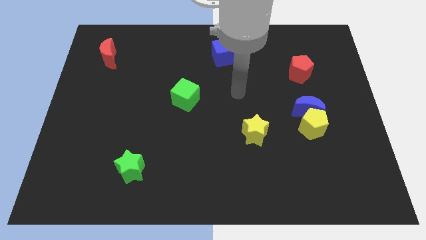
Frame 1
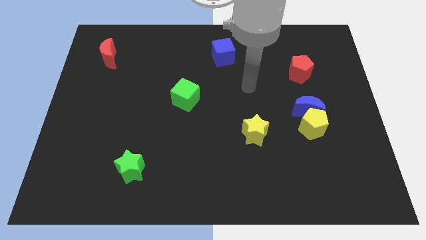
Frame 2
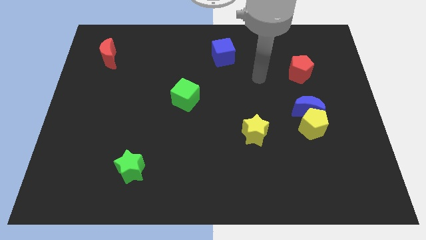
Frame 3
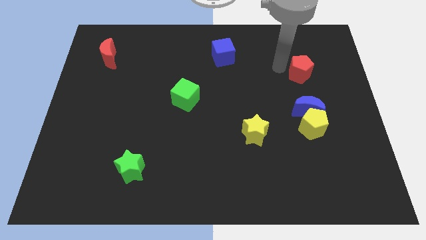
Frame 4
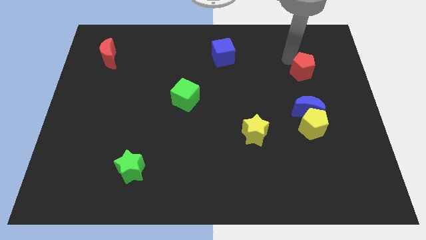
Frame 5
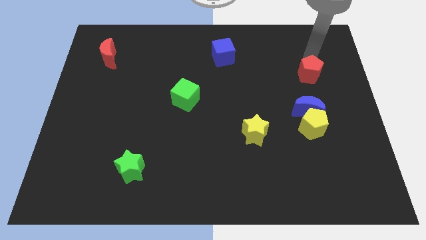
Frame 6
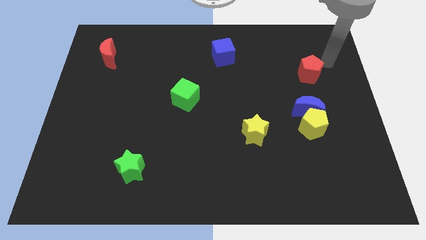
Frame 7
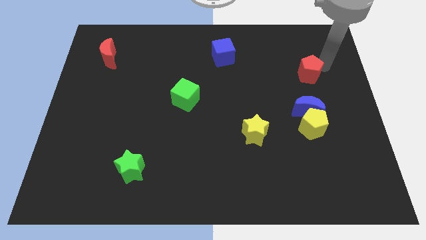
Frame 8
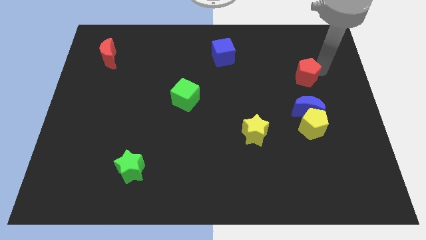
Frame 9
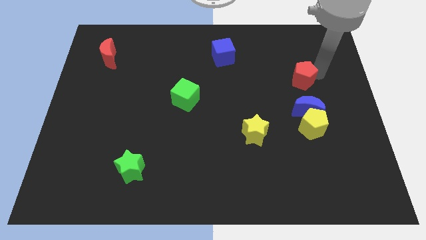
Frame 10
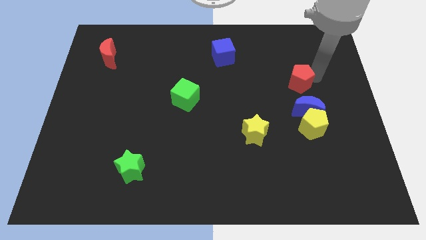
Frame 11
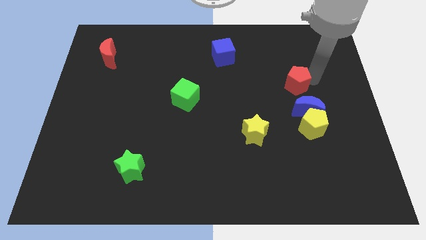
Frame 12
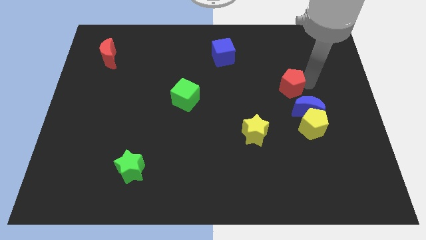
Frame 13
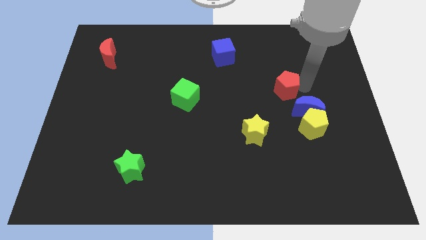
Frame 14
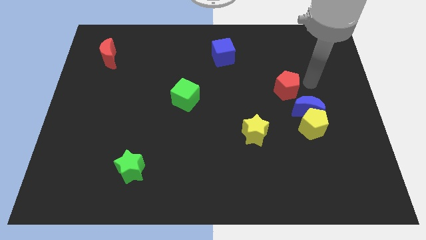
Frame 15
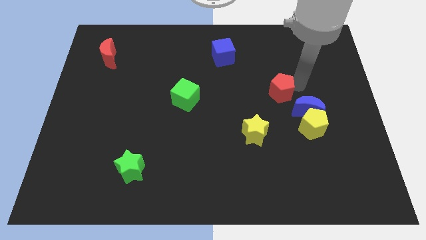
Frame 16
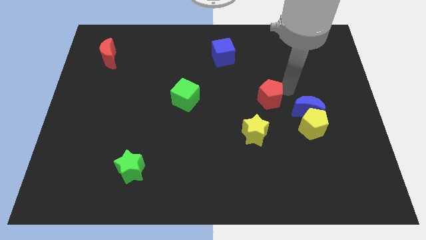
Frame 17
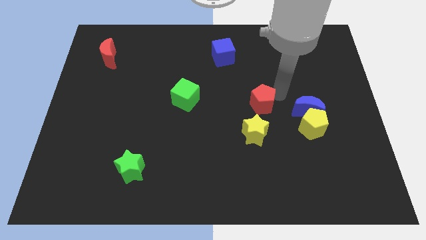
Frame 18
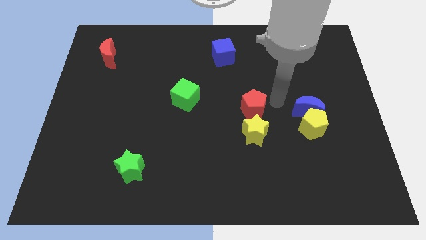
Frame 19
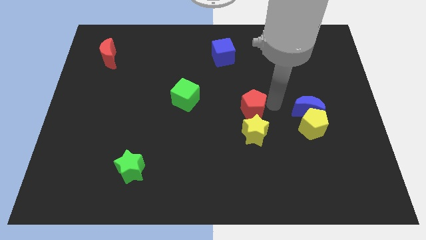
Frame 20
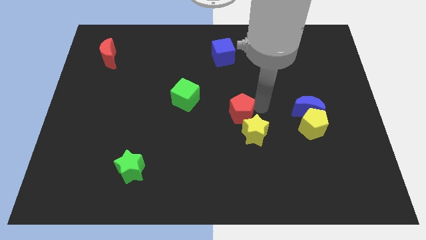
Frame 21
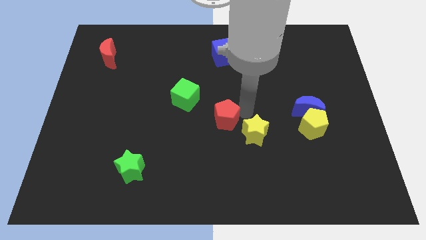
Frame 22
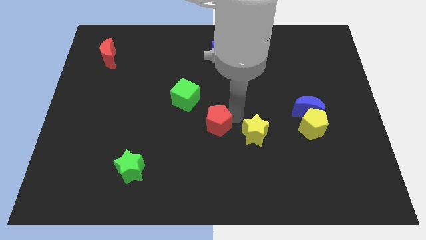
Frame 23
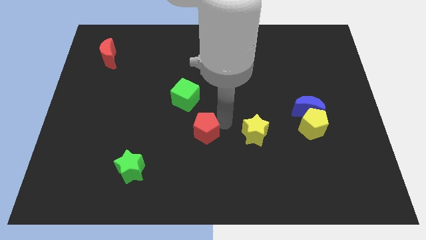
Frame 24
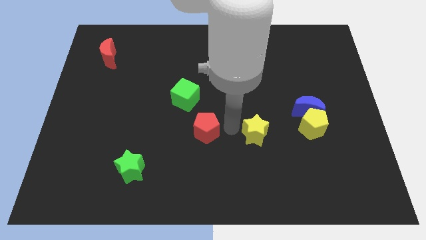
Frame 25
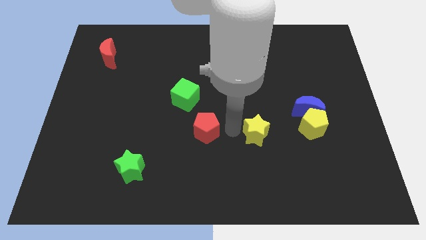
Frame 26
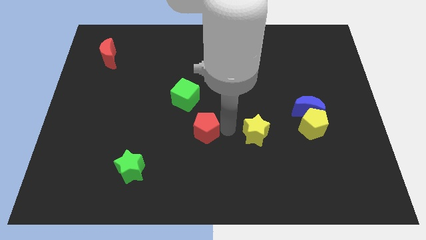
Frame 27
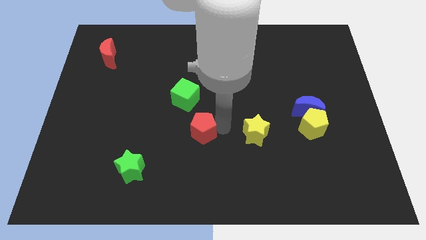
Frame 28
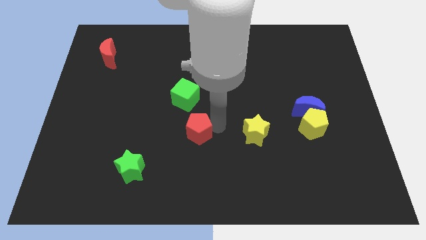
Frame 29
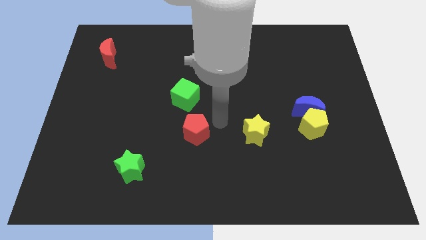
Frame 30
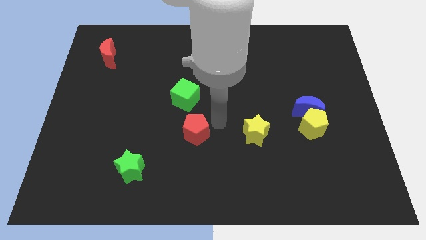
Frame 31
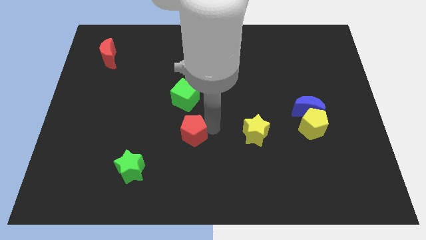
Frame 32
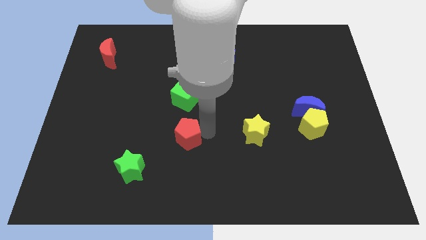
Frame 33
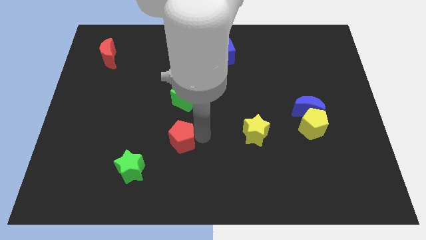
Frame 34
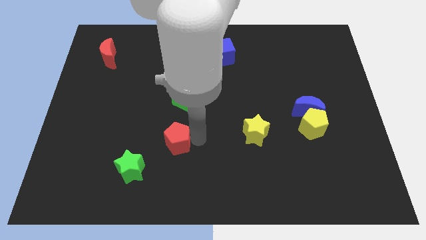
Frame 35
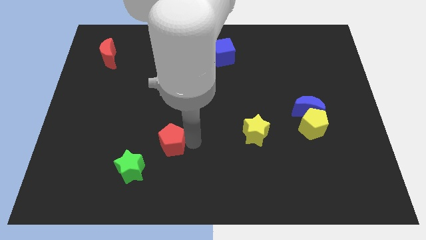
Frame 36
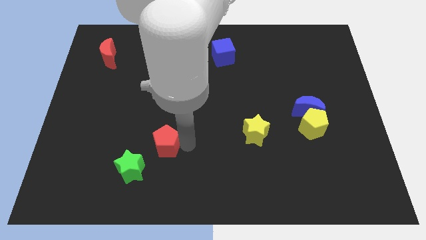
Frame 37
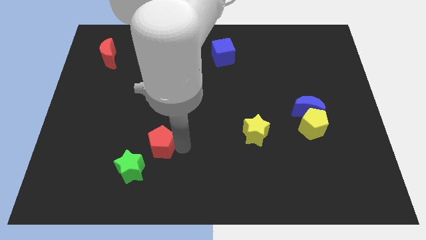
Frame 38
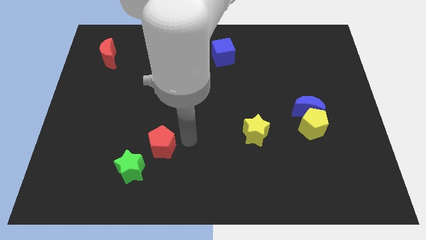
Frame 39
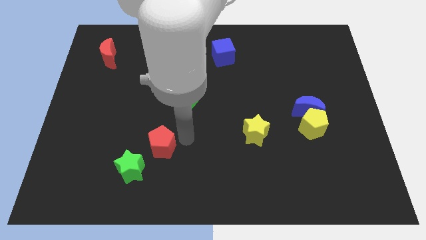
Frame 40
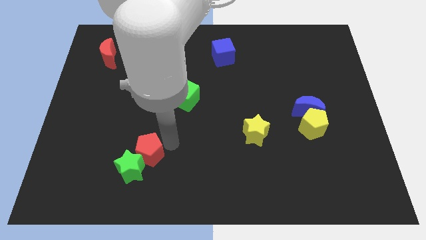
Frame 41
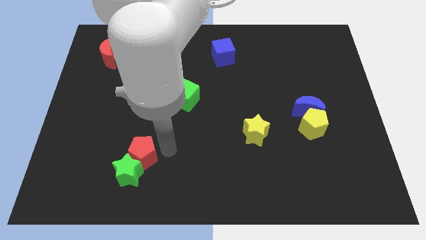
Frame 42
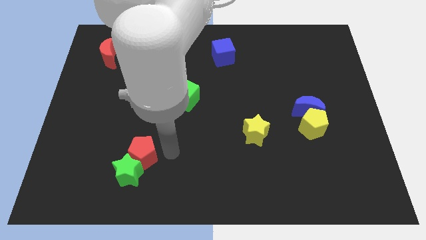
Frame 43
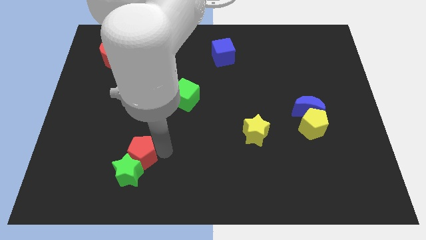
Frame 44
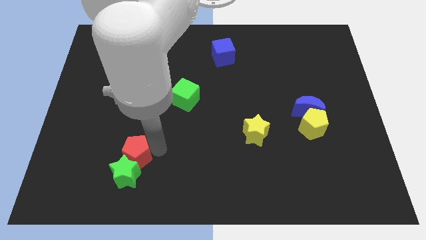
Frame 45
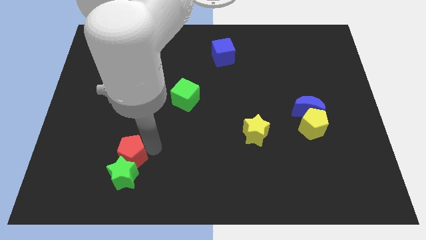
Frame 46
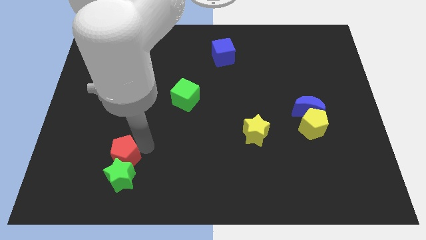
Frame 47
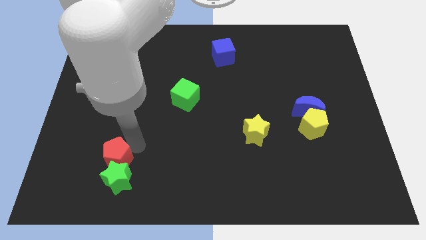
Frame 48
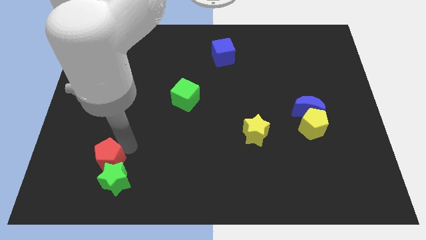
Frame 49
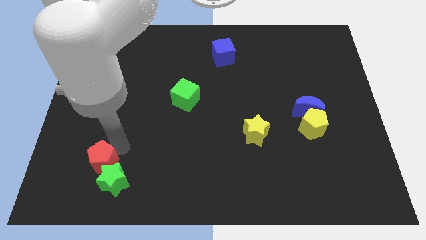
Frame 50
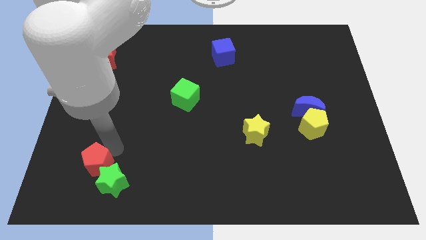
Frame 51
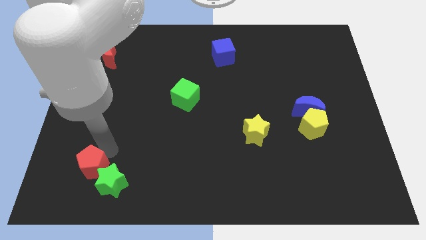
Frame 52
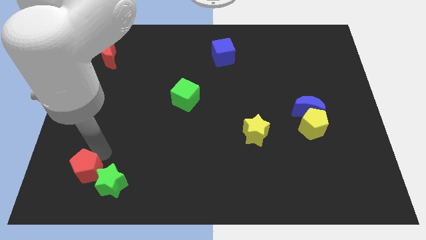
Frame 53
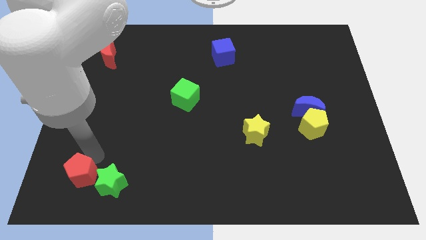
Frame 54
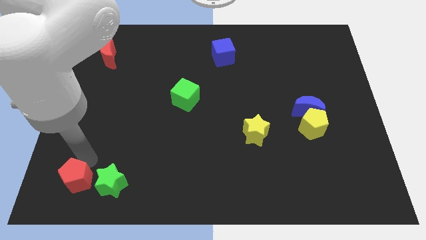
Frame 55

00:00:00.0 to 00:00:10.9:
push the red pentagon to the lower left corner

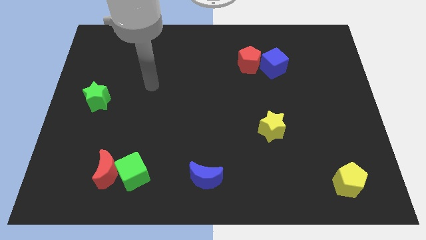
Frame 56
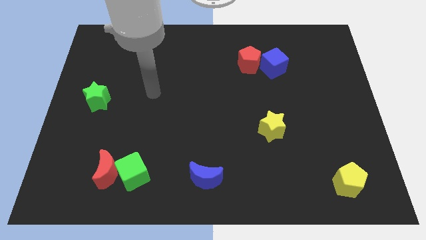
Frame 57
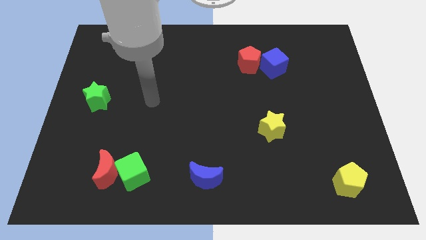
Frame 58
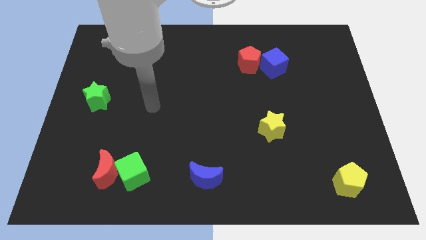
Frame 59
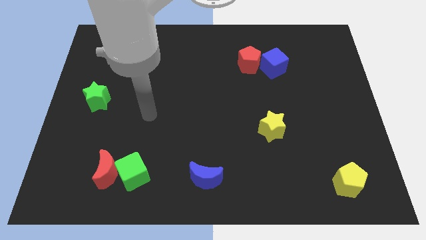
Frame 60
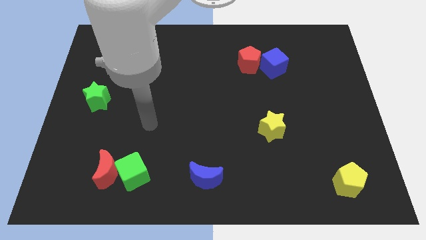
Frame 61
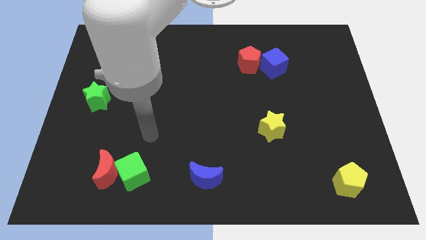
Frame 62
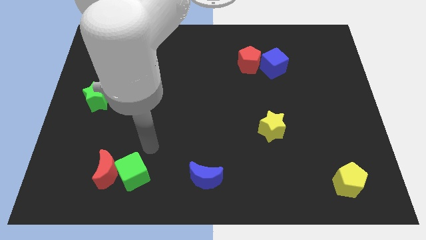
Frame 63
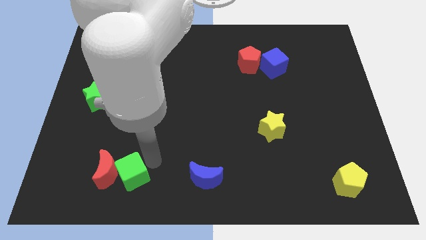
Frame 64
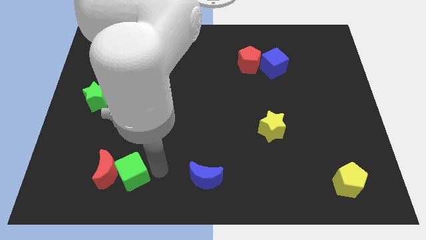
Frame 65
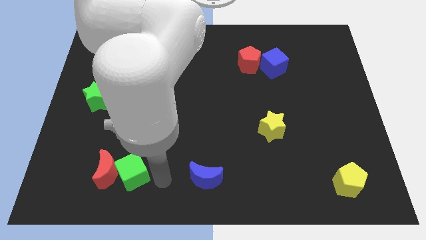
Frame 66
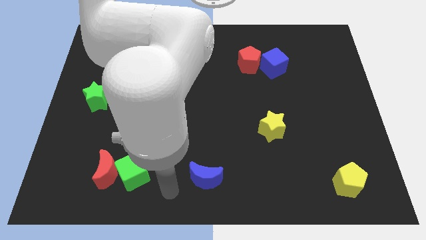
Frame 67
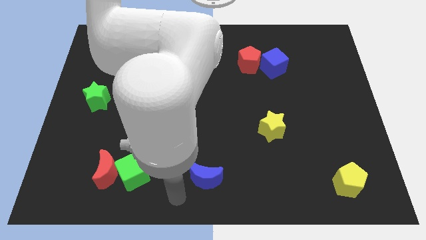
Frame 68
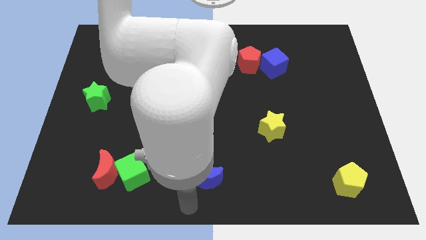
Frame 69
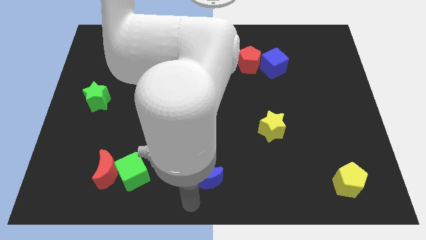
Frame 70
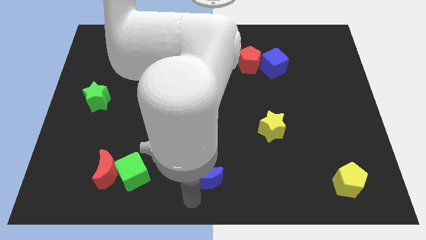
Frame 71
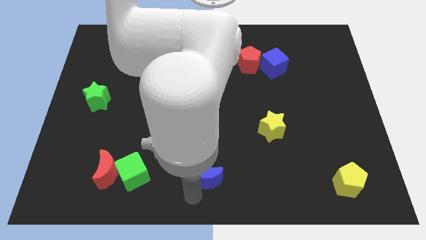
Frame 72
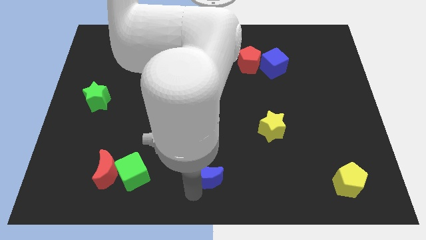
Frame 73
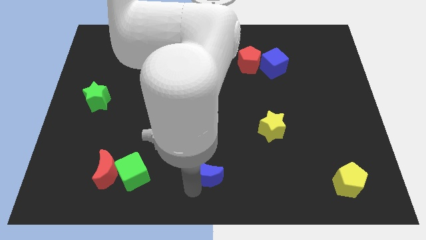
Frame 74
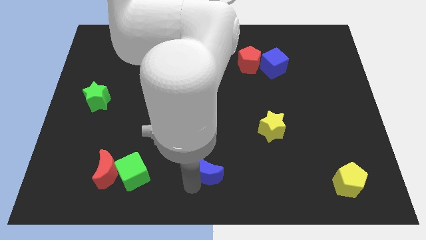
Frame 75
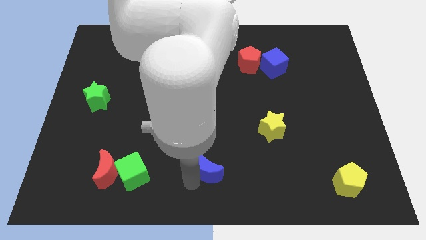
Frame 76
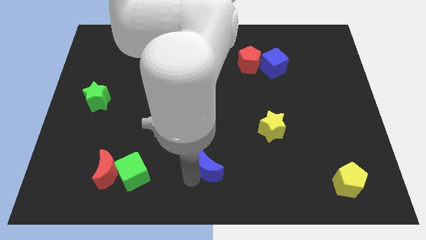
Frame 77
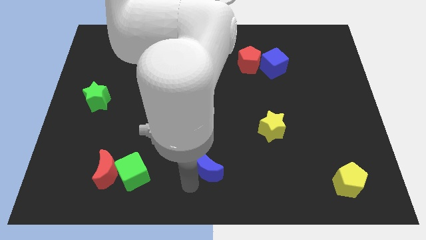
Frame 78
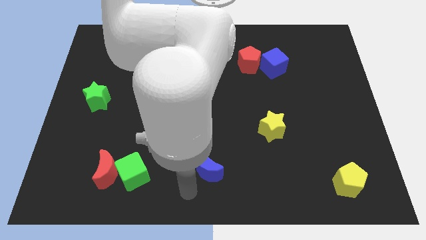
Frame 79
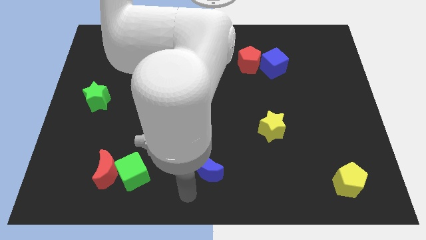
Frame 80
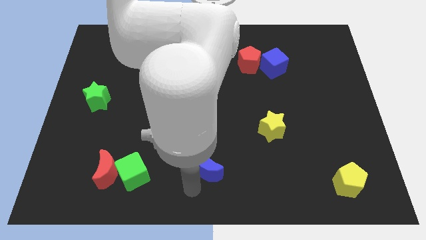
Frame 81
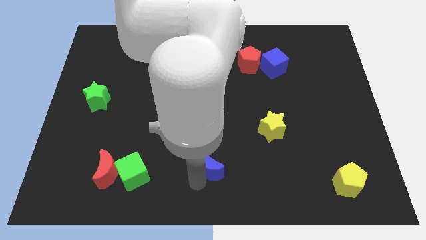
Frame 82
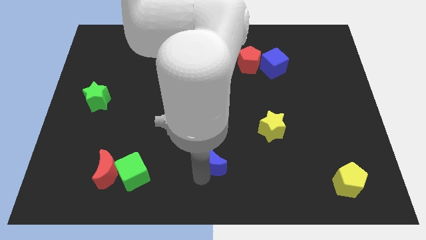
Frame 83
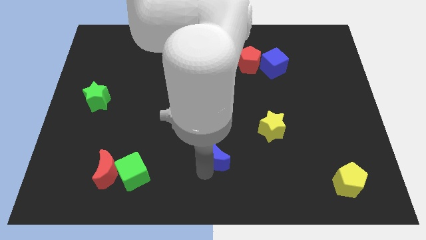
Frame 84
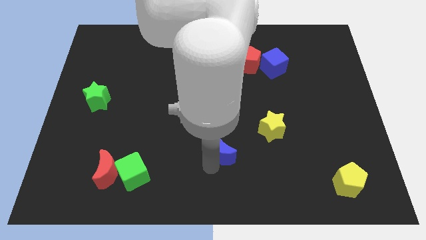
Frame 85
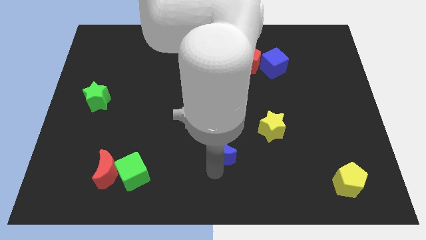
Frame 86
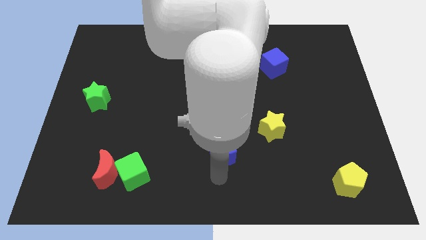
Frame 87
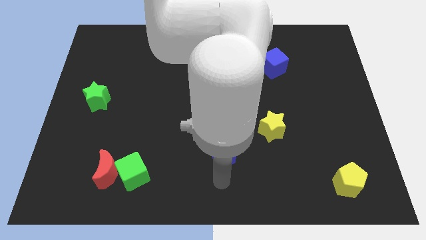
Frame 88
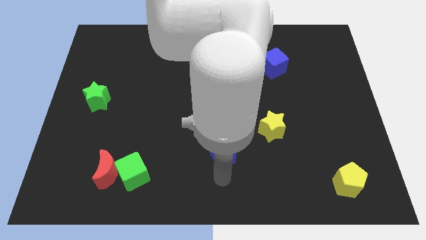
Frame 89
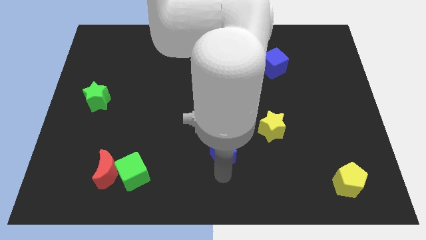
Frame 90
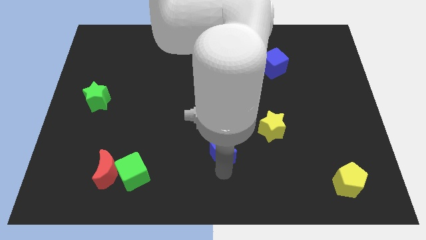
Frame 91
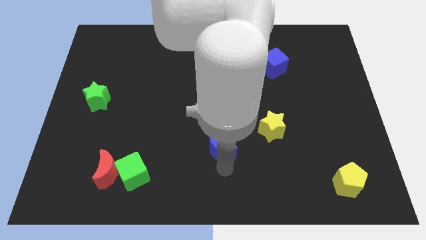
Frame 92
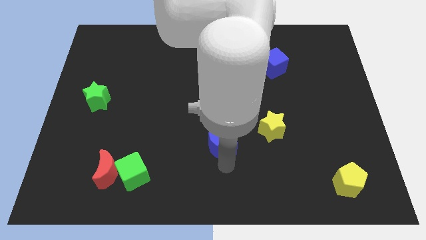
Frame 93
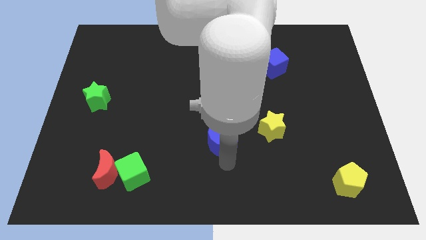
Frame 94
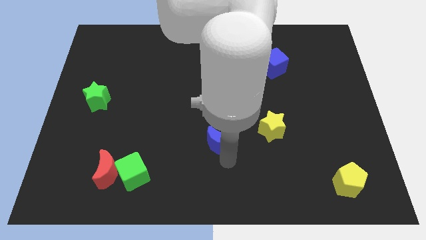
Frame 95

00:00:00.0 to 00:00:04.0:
put the blue moon to the middle
